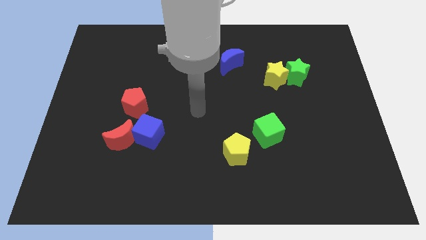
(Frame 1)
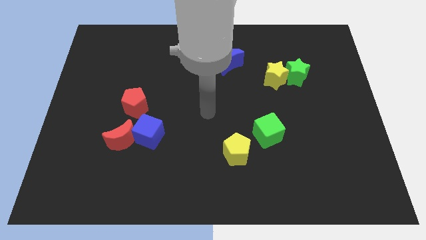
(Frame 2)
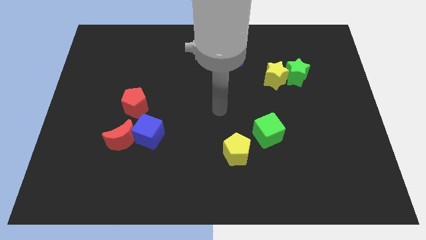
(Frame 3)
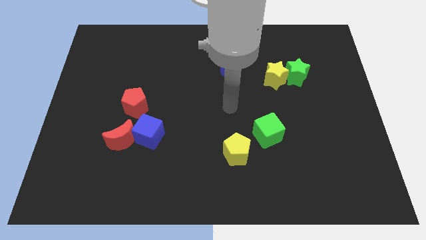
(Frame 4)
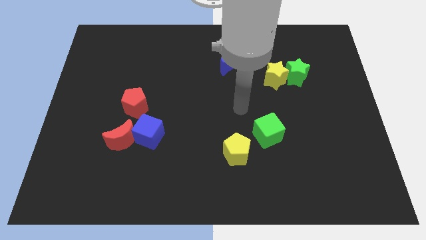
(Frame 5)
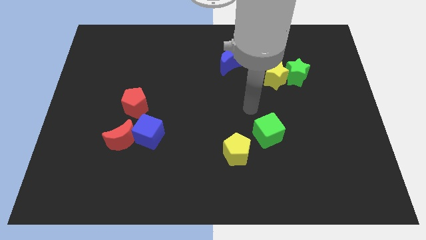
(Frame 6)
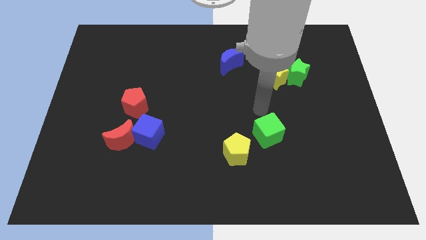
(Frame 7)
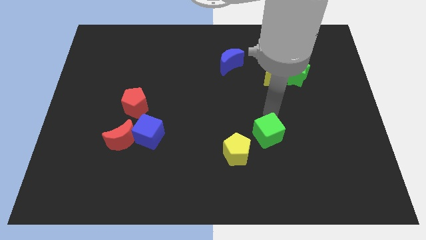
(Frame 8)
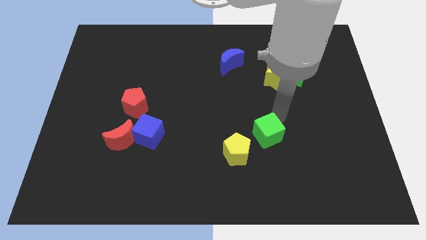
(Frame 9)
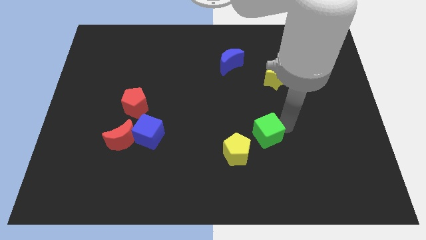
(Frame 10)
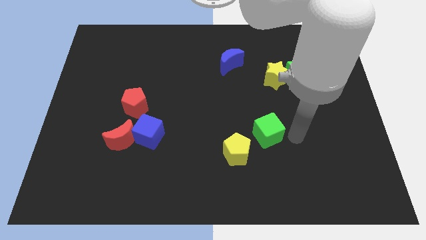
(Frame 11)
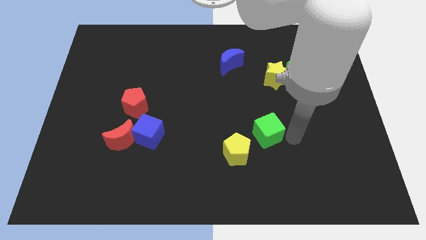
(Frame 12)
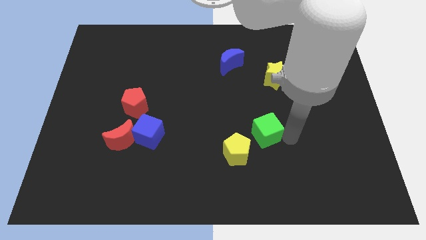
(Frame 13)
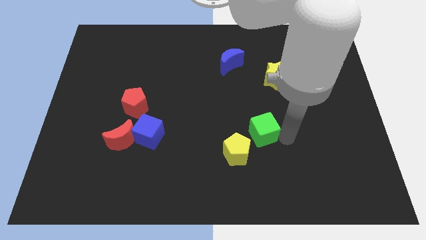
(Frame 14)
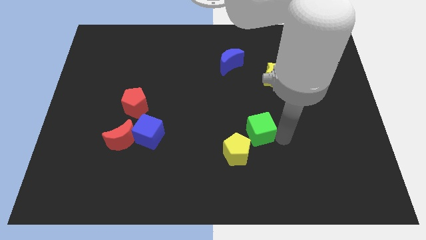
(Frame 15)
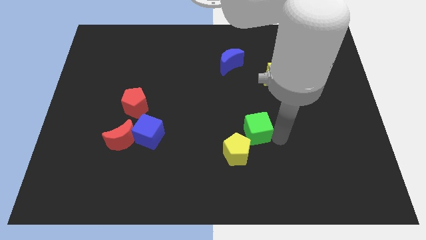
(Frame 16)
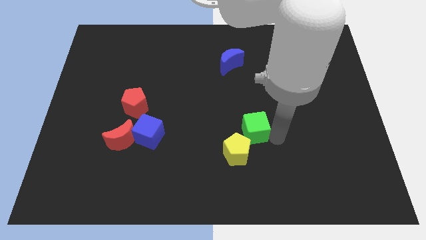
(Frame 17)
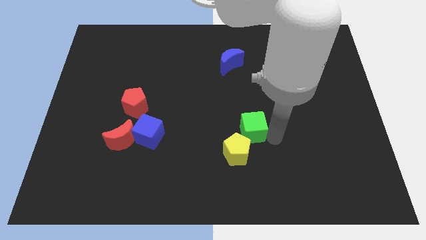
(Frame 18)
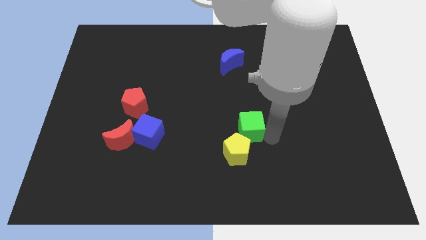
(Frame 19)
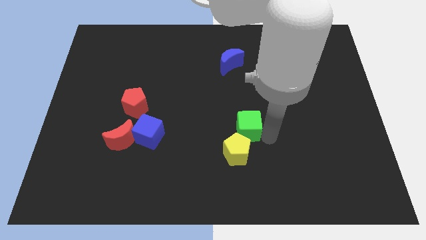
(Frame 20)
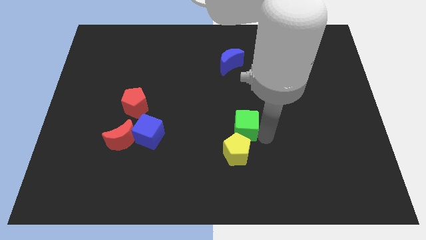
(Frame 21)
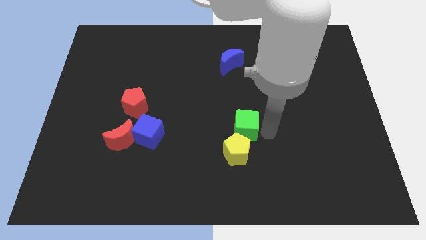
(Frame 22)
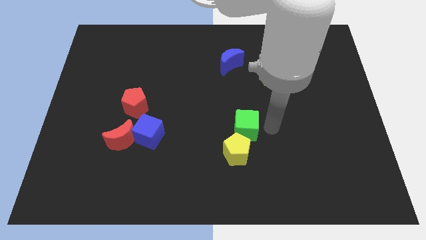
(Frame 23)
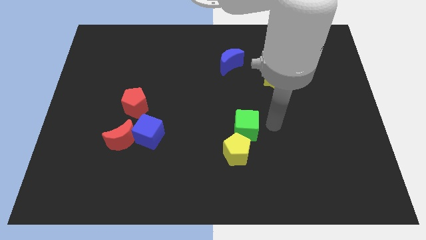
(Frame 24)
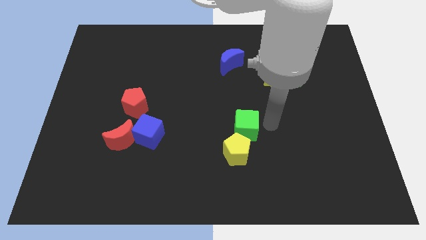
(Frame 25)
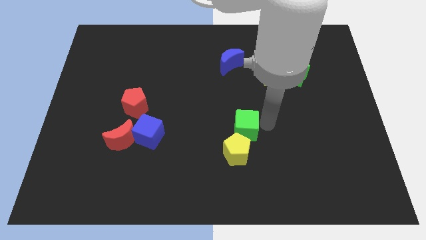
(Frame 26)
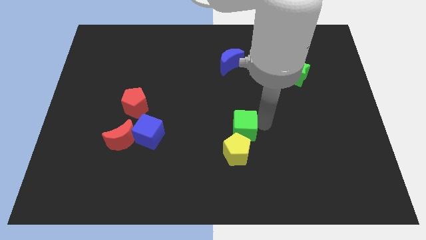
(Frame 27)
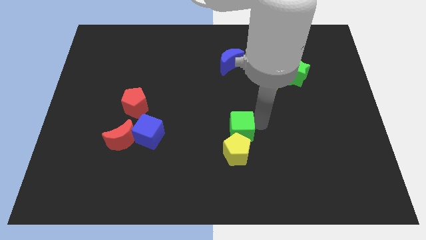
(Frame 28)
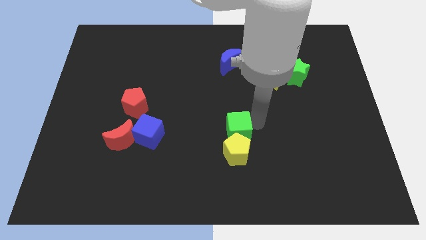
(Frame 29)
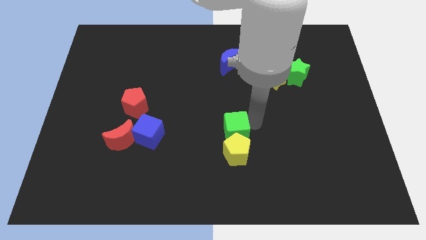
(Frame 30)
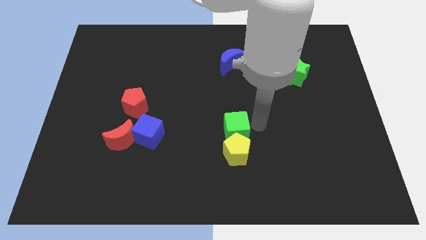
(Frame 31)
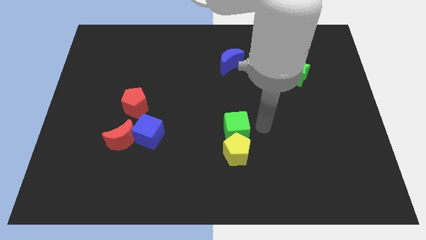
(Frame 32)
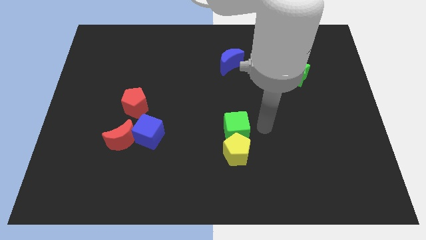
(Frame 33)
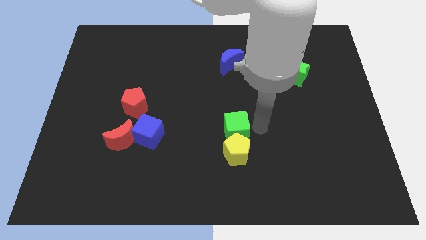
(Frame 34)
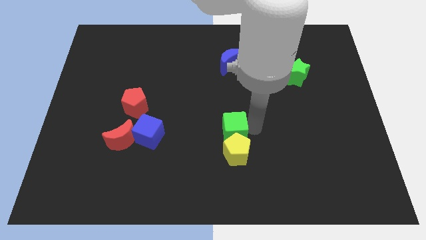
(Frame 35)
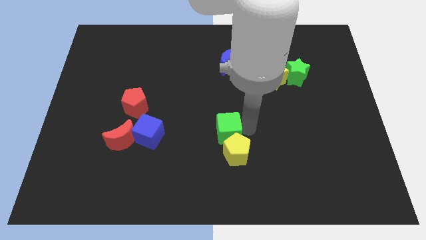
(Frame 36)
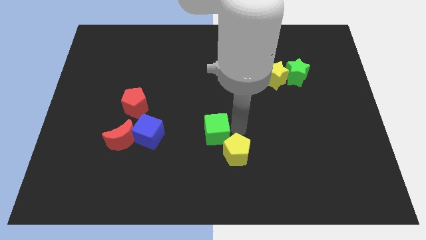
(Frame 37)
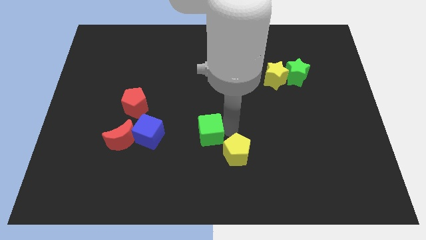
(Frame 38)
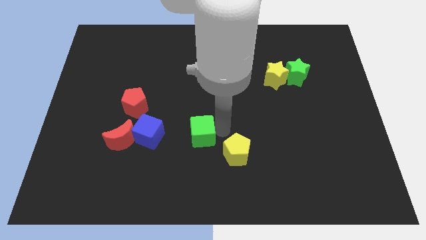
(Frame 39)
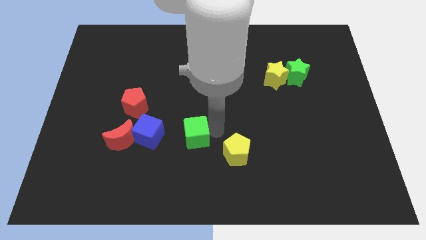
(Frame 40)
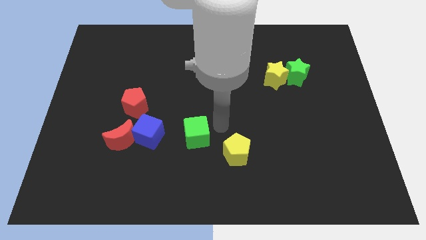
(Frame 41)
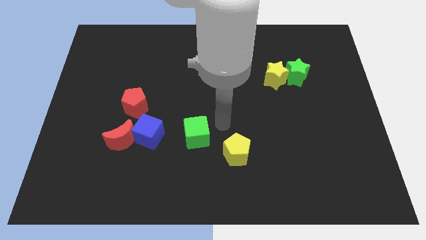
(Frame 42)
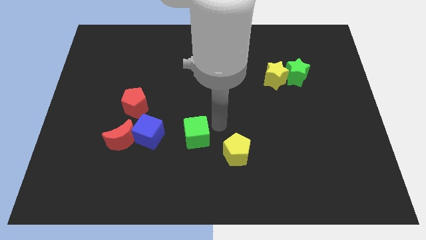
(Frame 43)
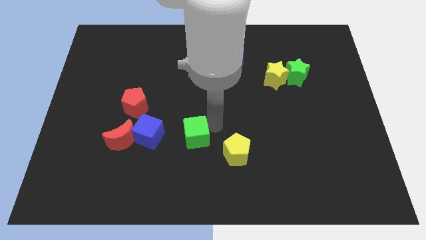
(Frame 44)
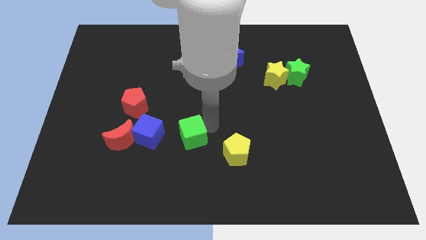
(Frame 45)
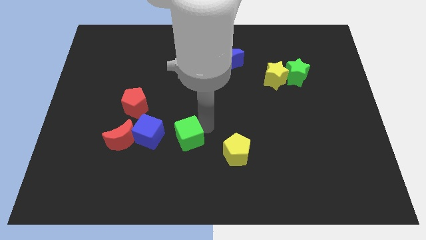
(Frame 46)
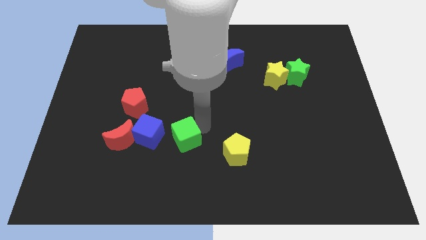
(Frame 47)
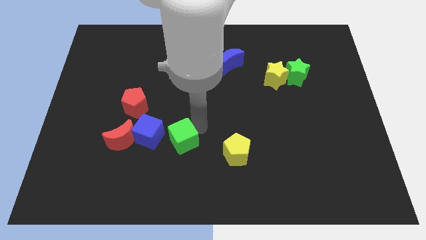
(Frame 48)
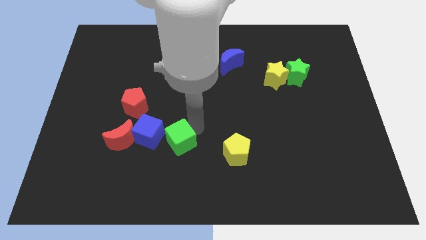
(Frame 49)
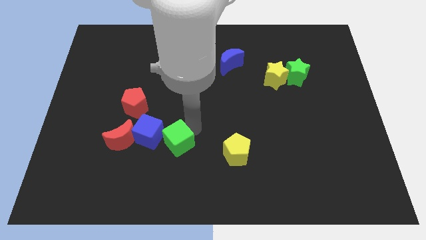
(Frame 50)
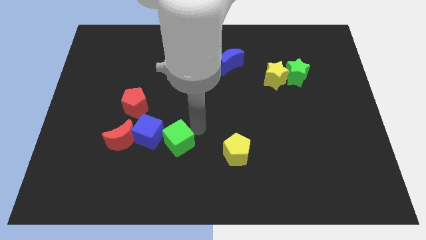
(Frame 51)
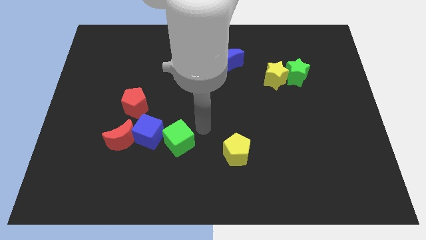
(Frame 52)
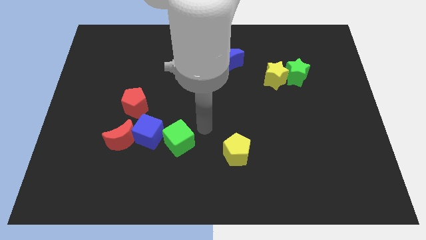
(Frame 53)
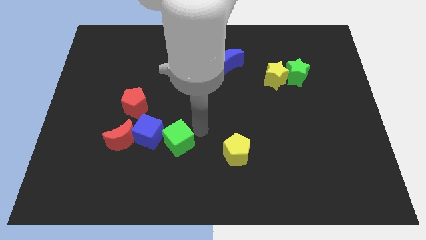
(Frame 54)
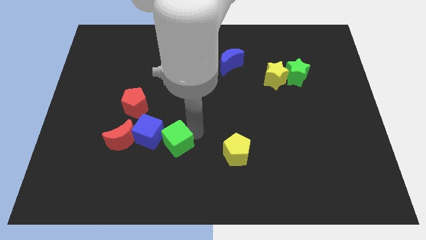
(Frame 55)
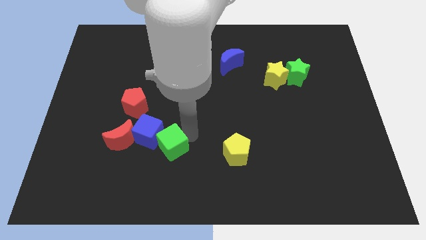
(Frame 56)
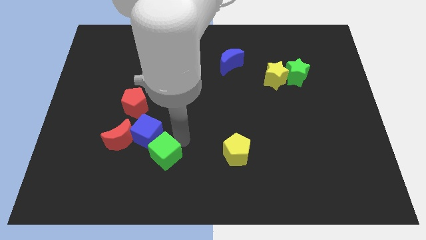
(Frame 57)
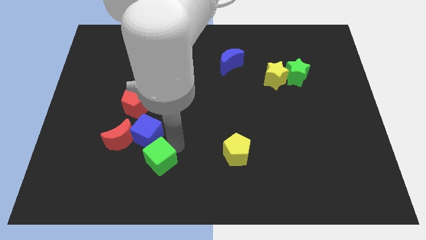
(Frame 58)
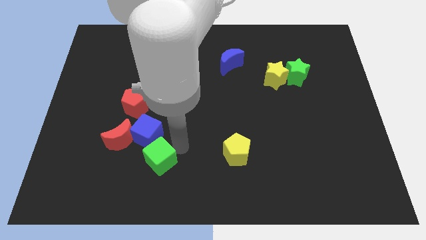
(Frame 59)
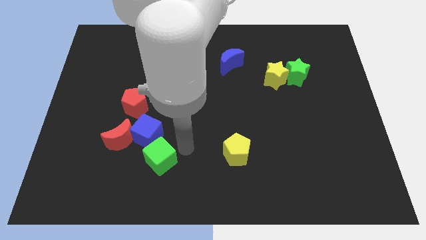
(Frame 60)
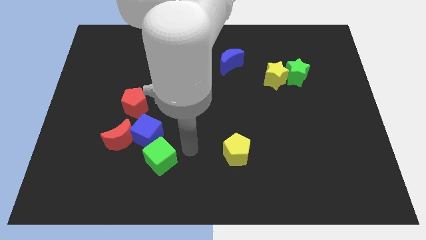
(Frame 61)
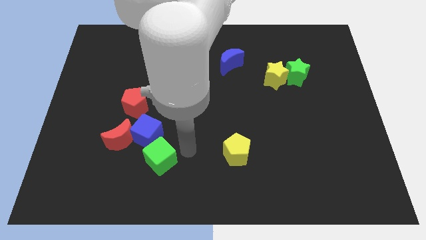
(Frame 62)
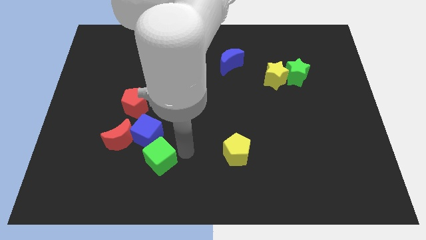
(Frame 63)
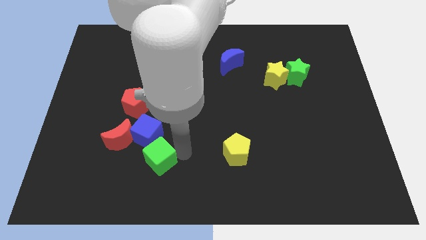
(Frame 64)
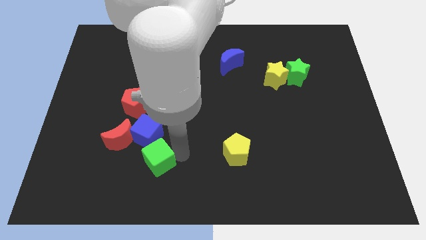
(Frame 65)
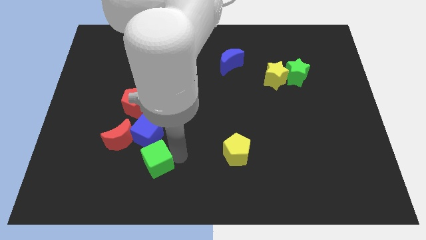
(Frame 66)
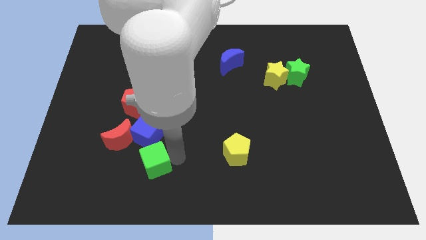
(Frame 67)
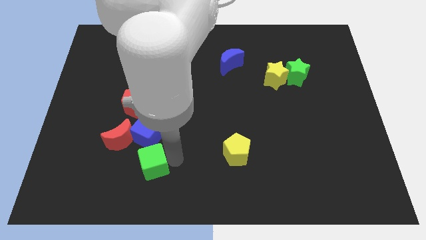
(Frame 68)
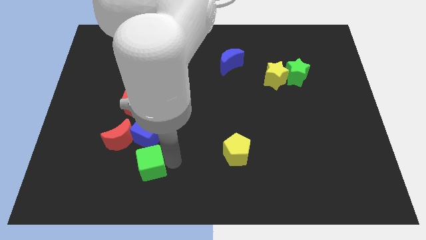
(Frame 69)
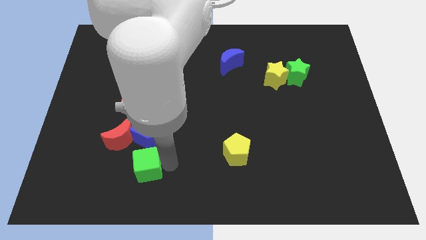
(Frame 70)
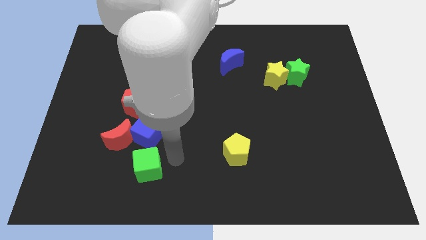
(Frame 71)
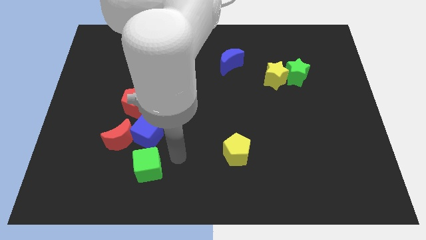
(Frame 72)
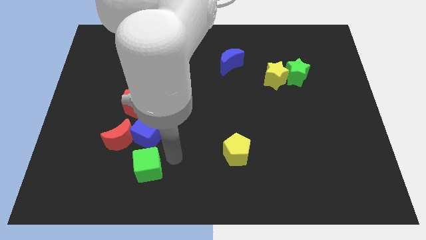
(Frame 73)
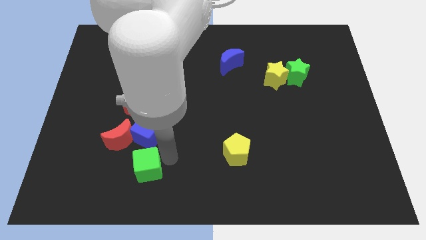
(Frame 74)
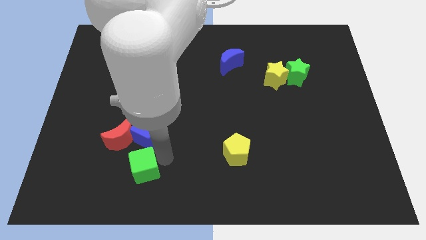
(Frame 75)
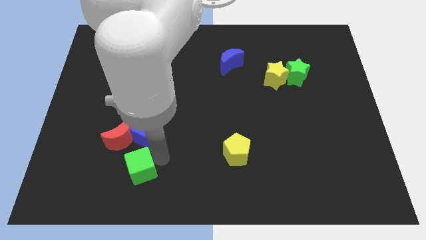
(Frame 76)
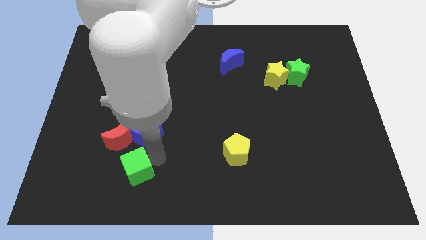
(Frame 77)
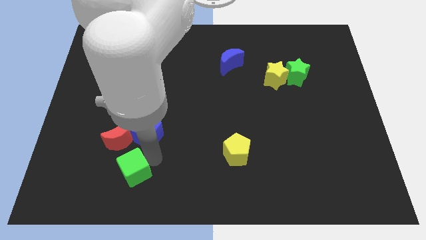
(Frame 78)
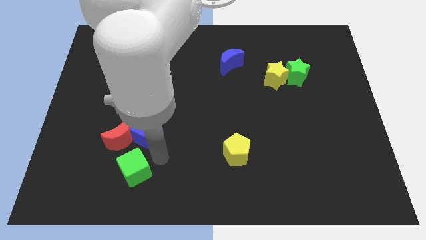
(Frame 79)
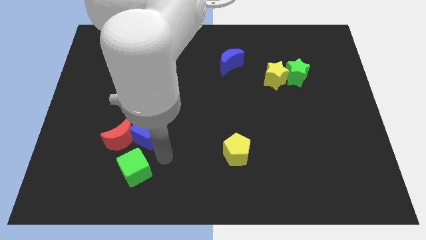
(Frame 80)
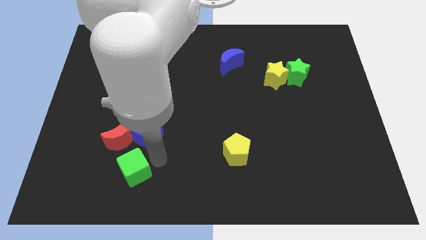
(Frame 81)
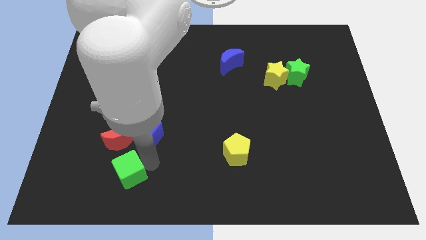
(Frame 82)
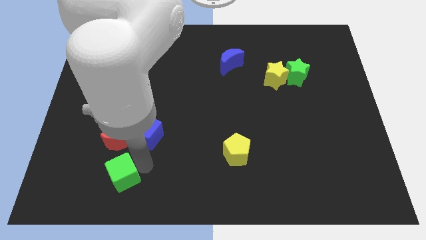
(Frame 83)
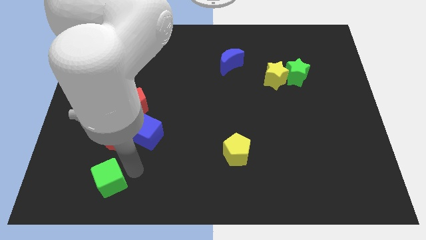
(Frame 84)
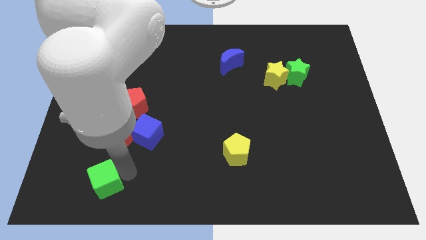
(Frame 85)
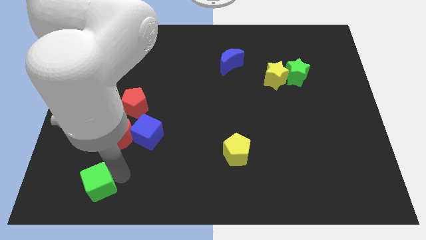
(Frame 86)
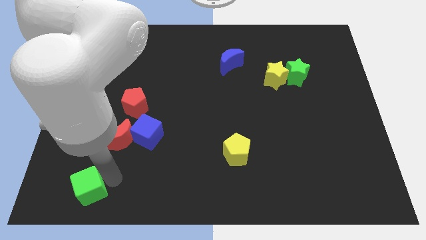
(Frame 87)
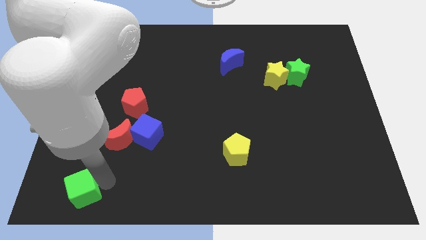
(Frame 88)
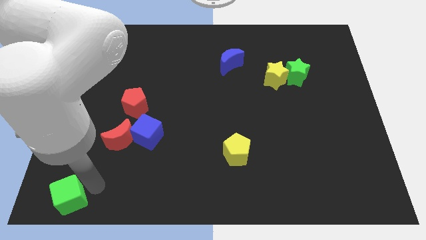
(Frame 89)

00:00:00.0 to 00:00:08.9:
push the green cube to the lower left corner
